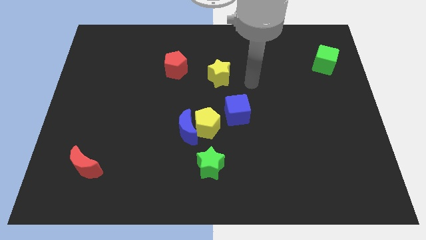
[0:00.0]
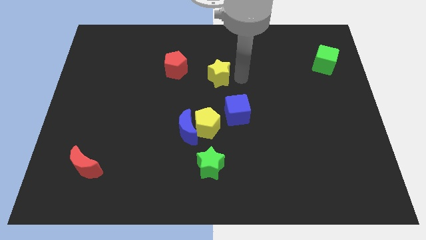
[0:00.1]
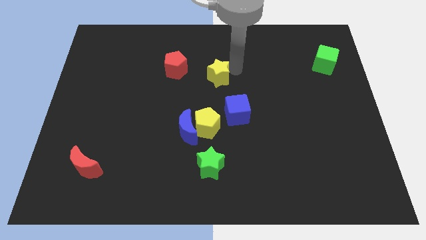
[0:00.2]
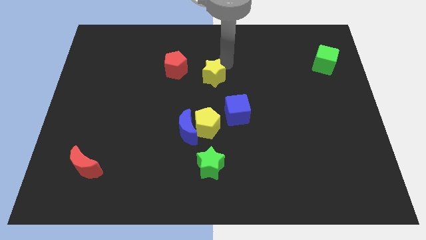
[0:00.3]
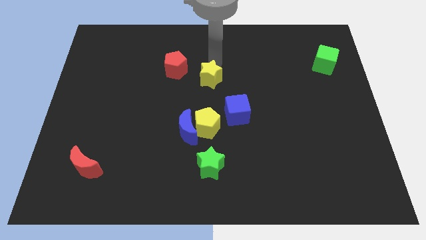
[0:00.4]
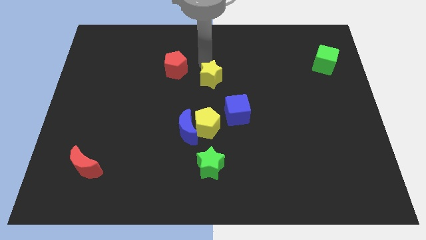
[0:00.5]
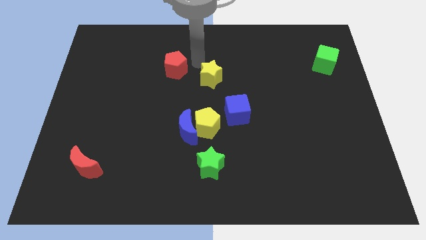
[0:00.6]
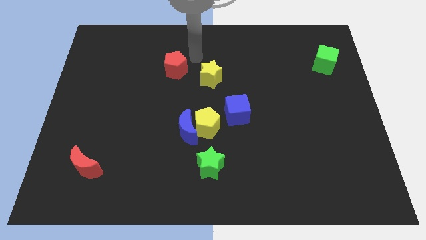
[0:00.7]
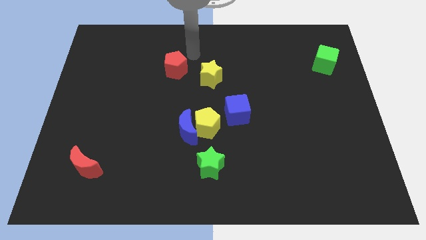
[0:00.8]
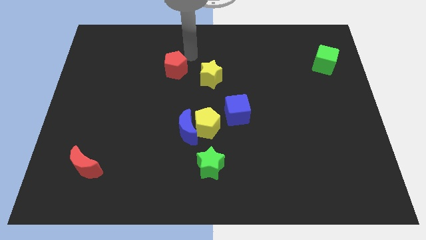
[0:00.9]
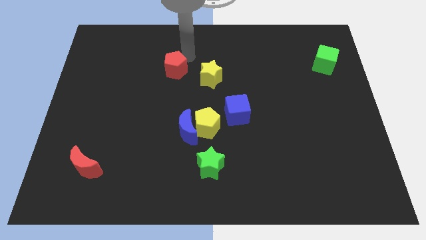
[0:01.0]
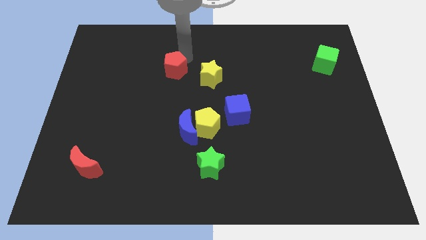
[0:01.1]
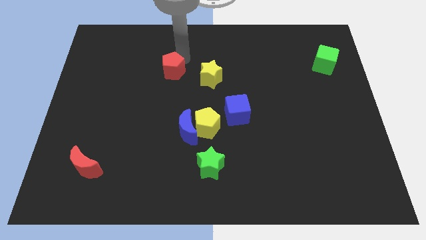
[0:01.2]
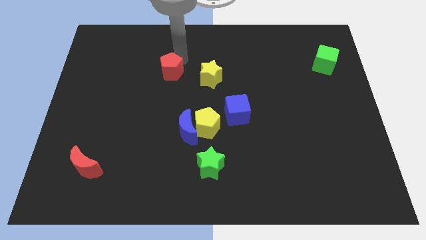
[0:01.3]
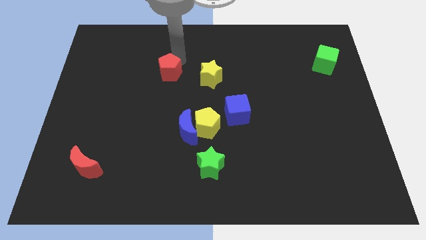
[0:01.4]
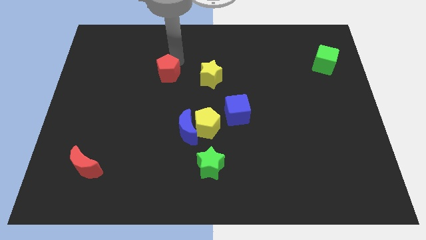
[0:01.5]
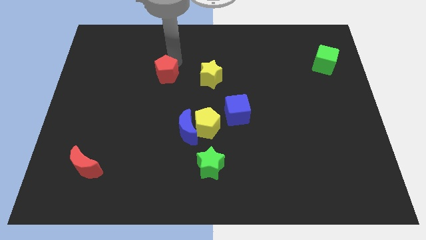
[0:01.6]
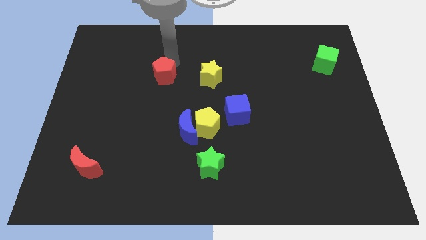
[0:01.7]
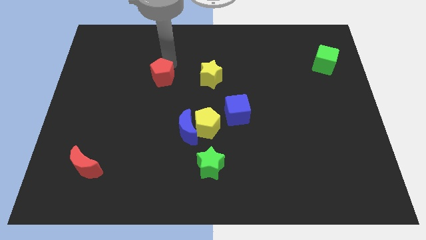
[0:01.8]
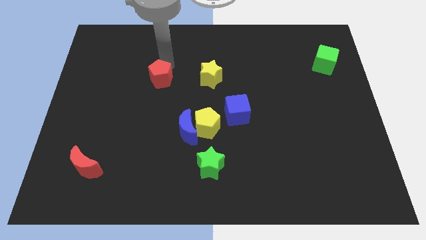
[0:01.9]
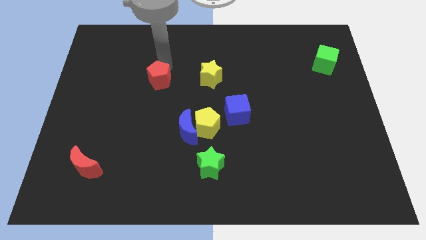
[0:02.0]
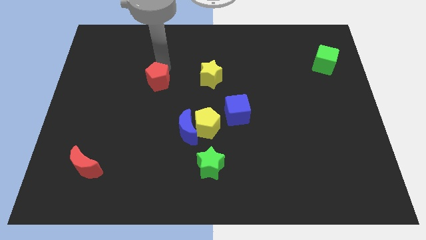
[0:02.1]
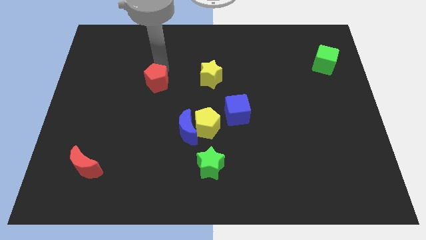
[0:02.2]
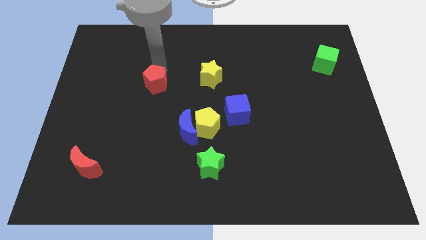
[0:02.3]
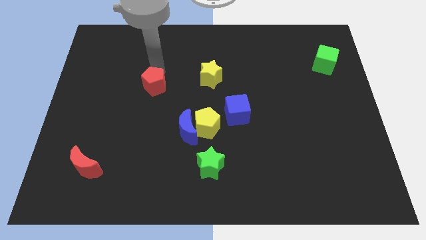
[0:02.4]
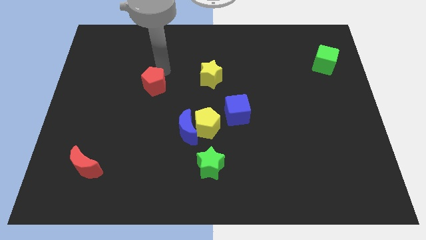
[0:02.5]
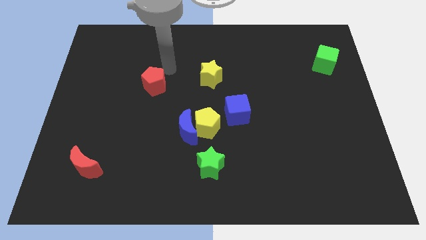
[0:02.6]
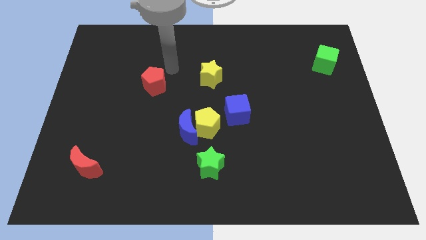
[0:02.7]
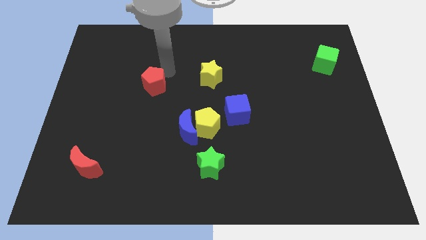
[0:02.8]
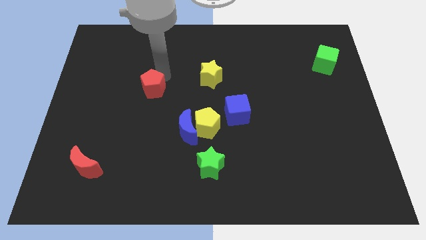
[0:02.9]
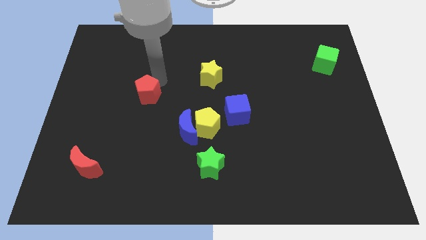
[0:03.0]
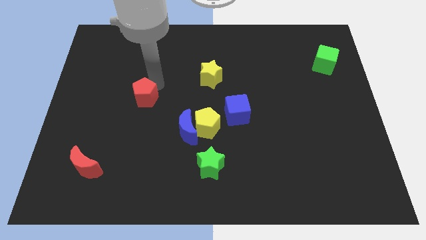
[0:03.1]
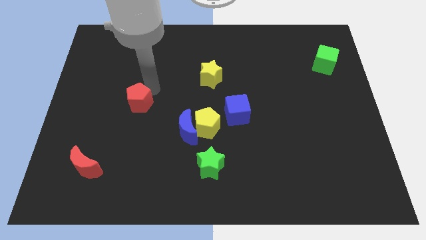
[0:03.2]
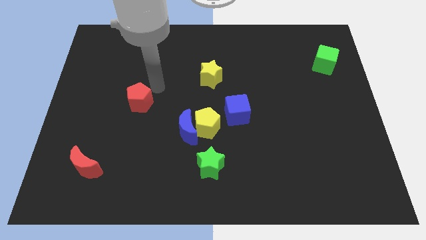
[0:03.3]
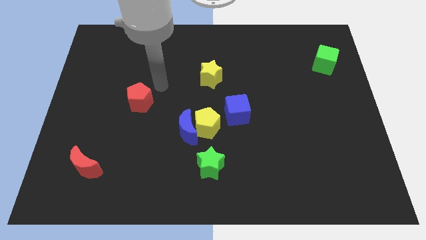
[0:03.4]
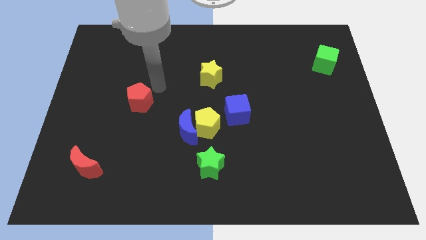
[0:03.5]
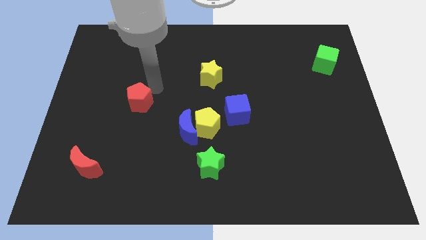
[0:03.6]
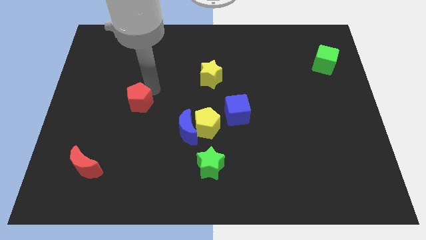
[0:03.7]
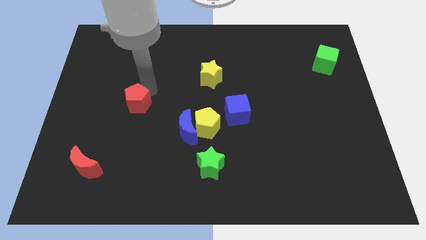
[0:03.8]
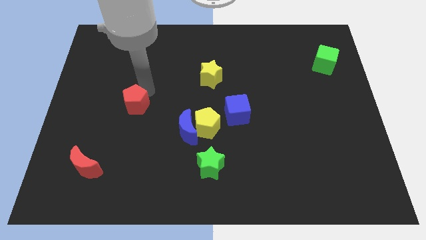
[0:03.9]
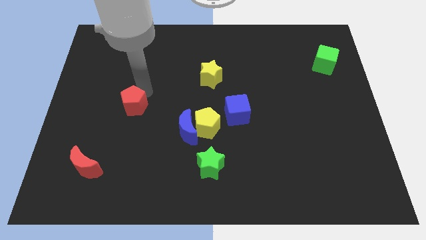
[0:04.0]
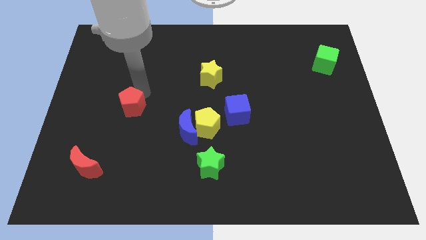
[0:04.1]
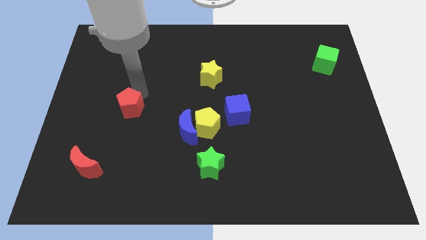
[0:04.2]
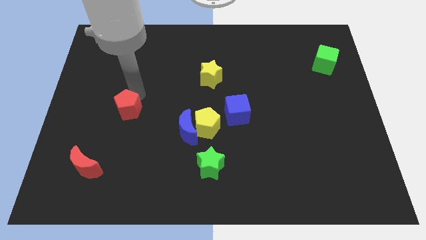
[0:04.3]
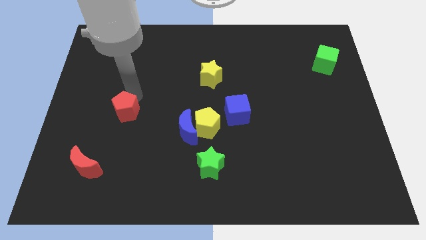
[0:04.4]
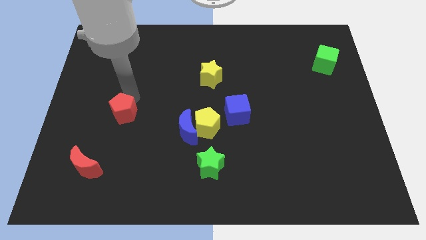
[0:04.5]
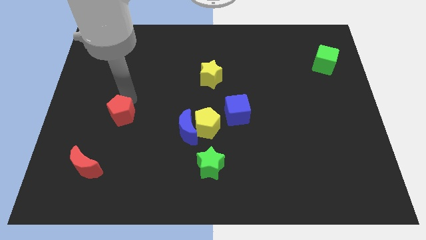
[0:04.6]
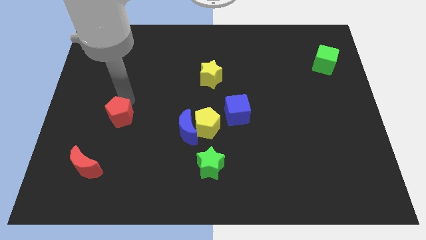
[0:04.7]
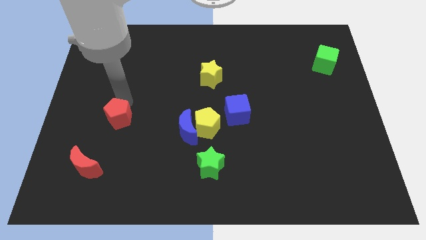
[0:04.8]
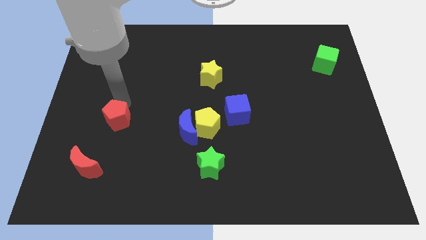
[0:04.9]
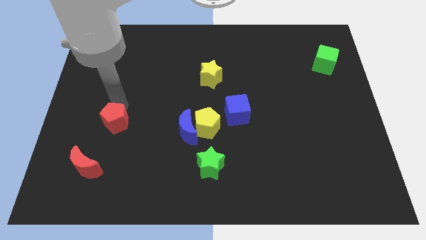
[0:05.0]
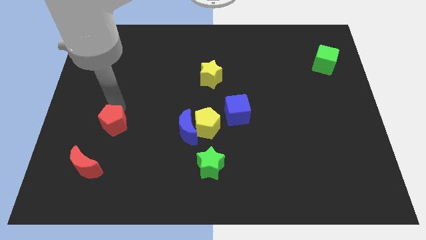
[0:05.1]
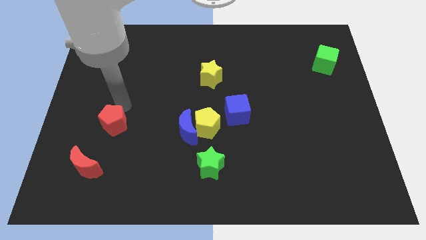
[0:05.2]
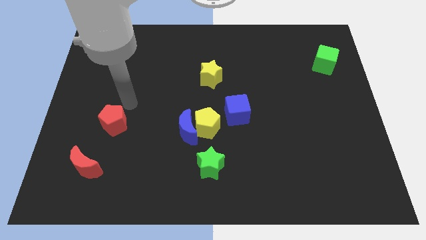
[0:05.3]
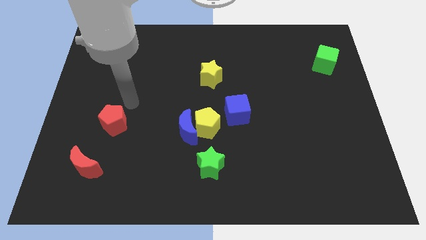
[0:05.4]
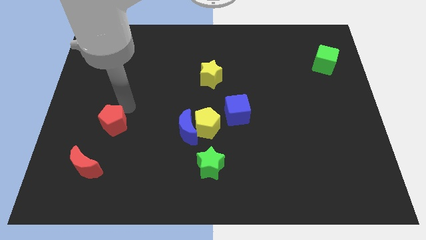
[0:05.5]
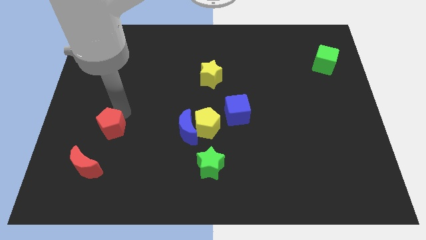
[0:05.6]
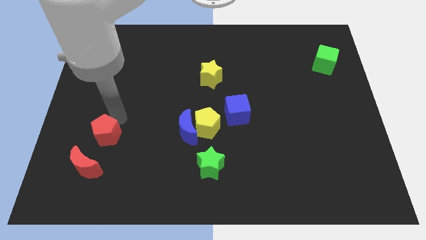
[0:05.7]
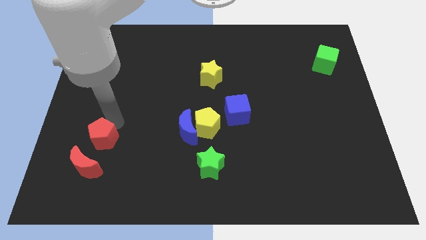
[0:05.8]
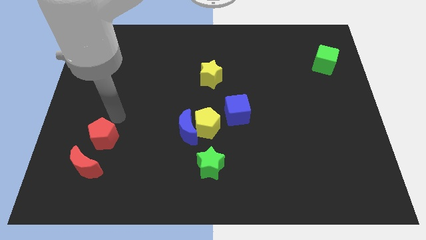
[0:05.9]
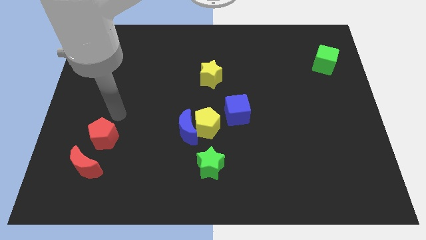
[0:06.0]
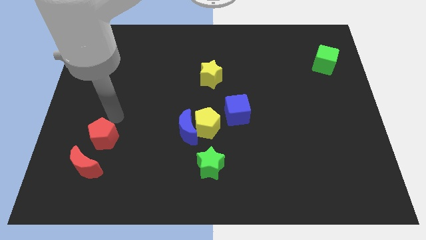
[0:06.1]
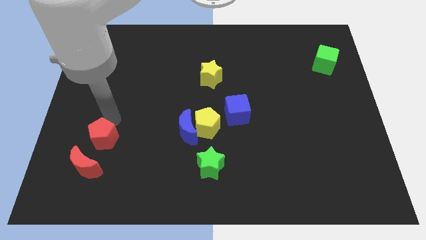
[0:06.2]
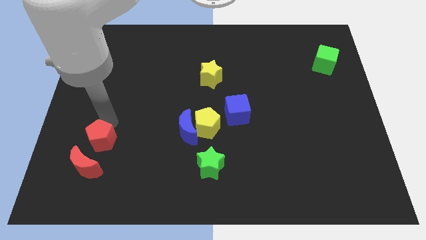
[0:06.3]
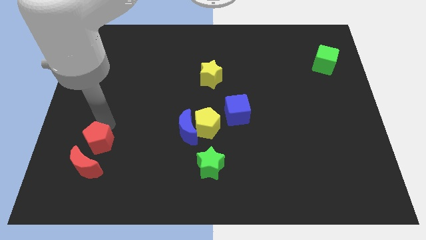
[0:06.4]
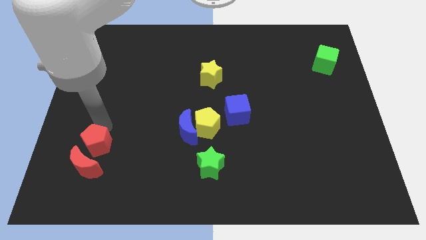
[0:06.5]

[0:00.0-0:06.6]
move the red pentagon close to the red moon

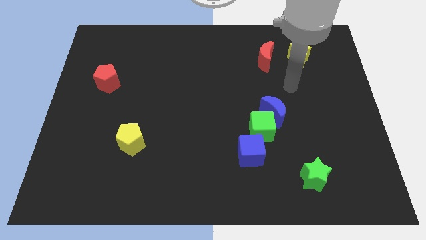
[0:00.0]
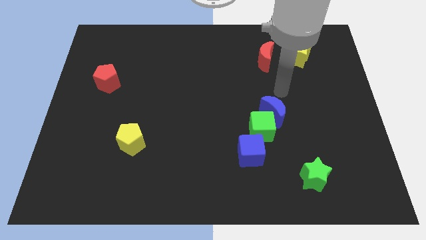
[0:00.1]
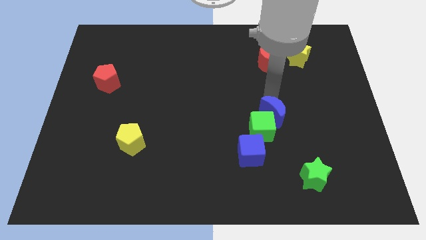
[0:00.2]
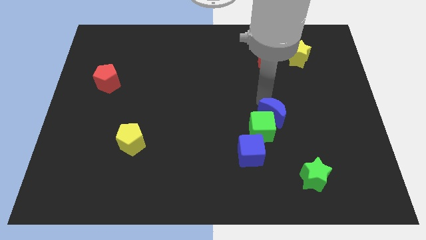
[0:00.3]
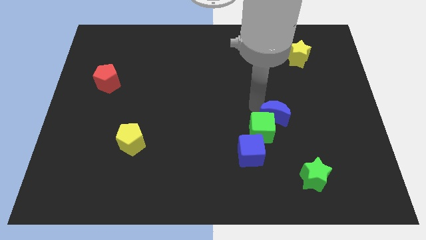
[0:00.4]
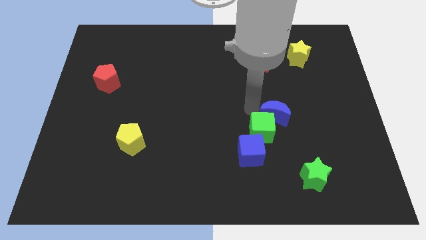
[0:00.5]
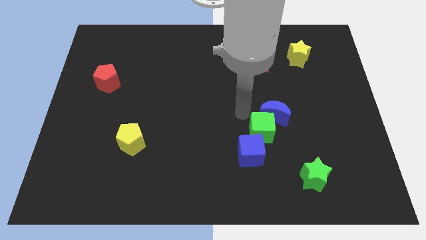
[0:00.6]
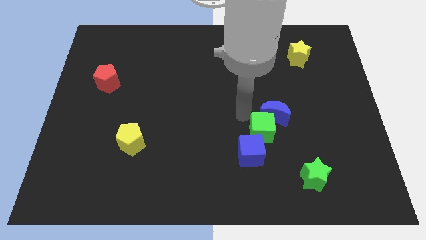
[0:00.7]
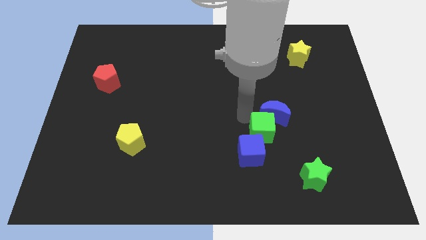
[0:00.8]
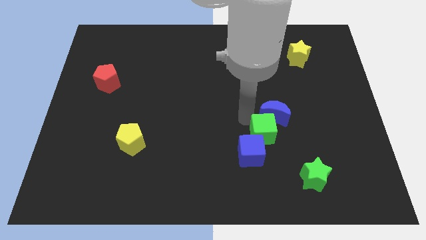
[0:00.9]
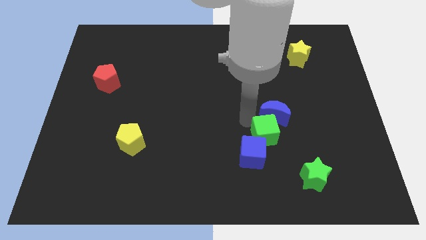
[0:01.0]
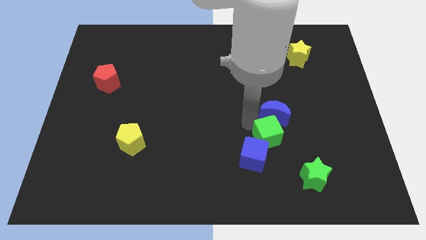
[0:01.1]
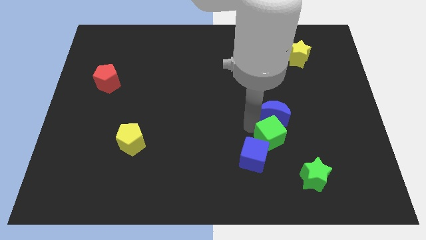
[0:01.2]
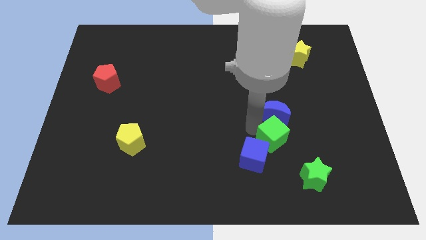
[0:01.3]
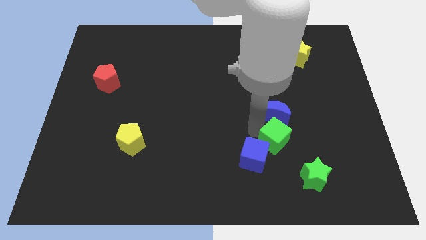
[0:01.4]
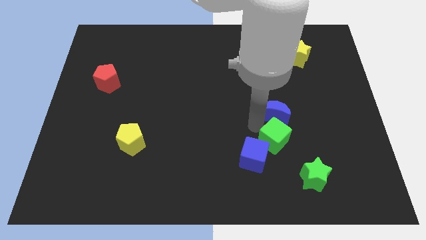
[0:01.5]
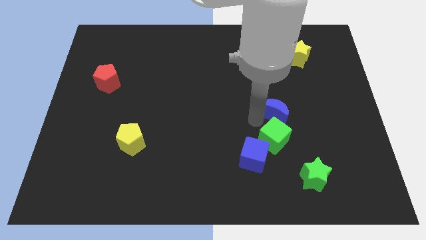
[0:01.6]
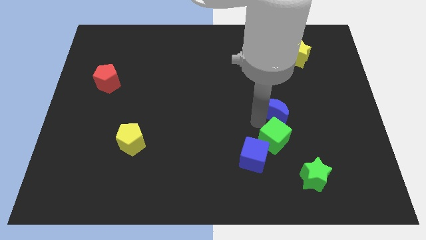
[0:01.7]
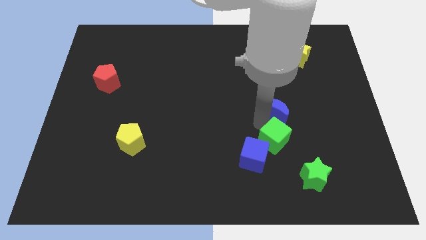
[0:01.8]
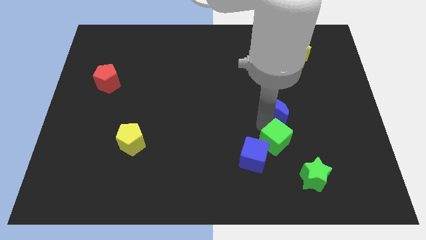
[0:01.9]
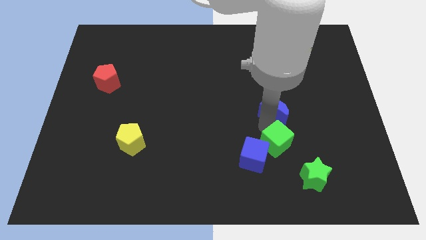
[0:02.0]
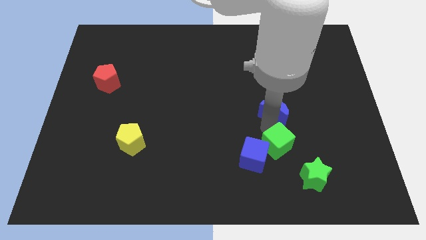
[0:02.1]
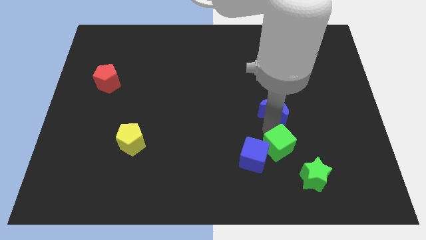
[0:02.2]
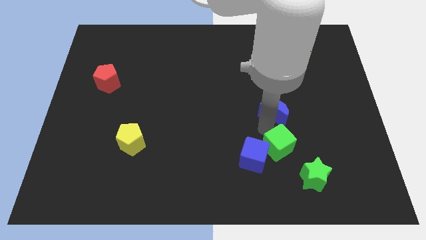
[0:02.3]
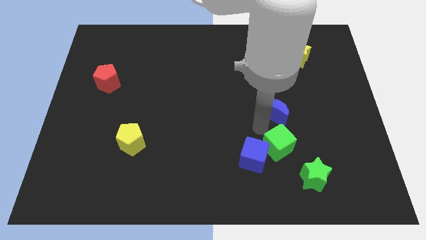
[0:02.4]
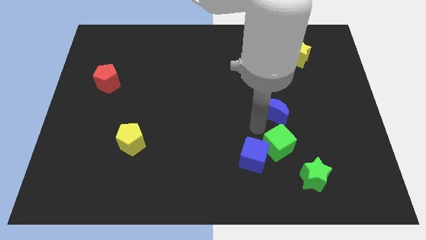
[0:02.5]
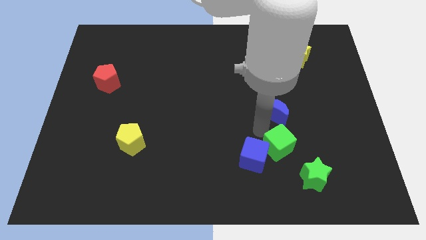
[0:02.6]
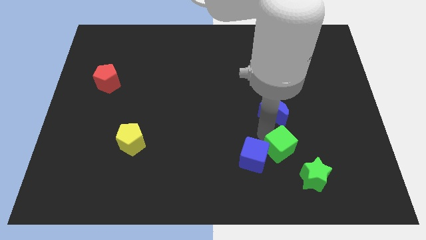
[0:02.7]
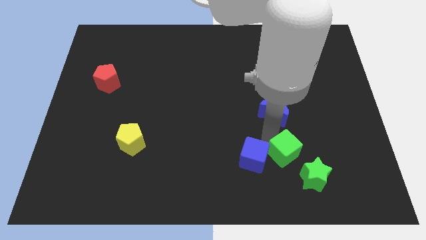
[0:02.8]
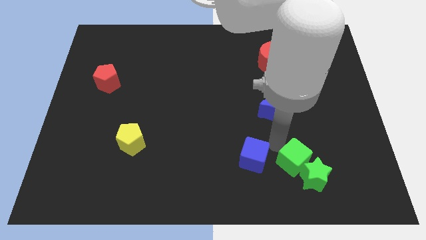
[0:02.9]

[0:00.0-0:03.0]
push the green cube next to the green star
